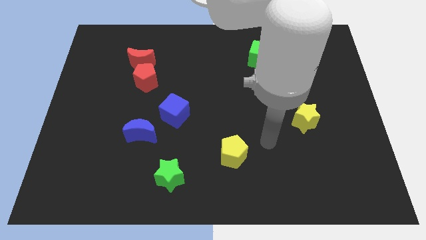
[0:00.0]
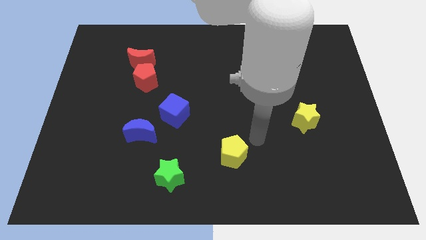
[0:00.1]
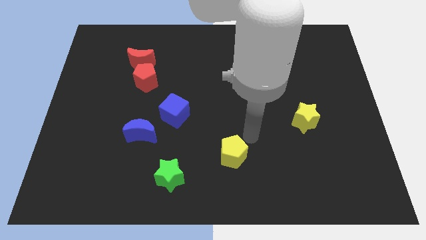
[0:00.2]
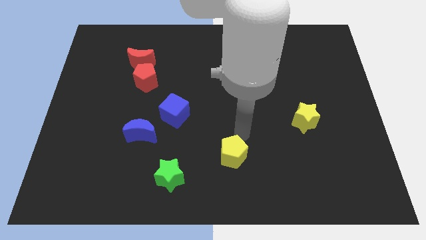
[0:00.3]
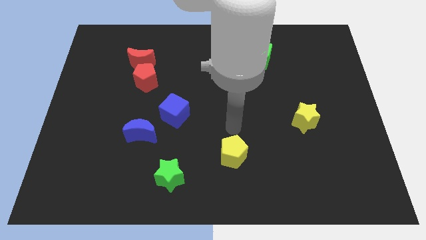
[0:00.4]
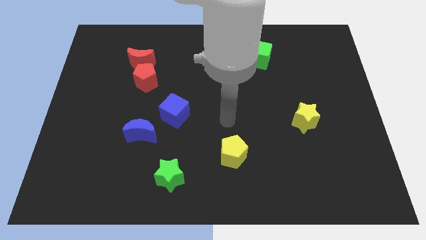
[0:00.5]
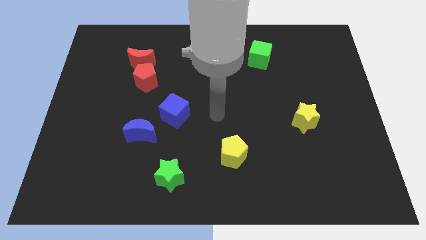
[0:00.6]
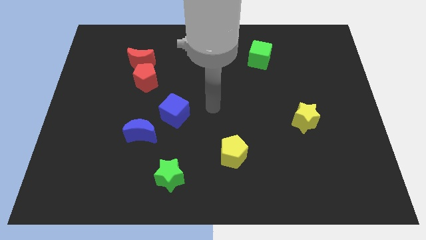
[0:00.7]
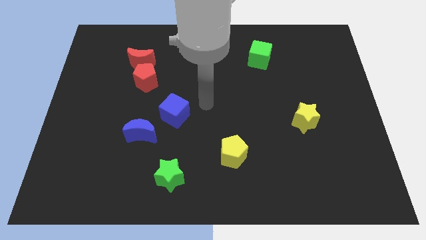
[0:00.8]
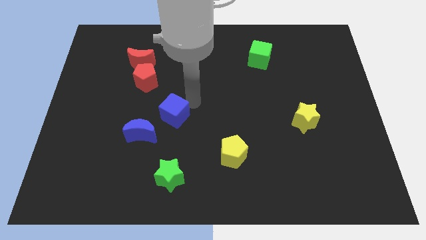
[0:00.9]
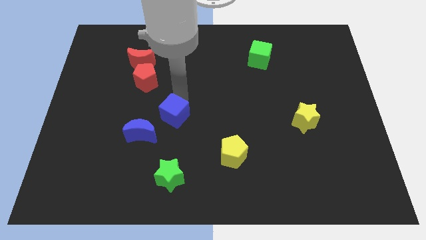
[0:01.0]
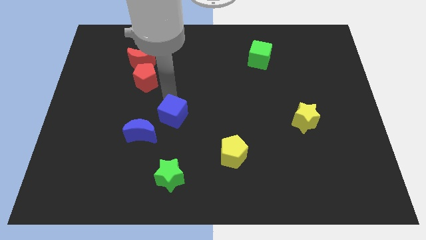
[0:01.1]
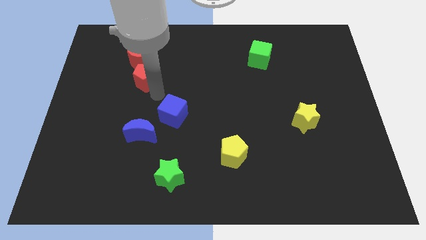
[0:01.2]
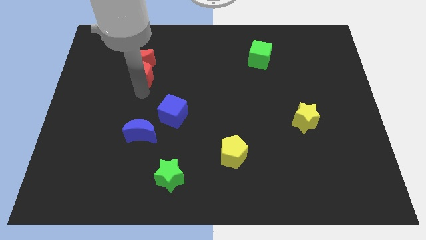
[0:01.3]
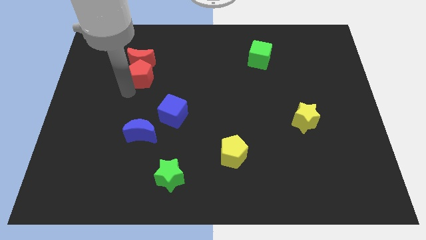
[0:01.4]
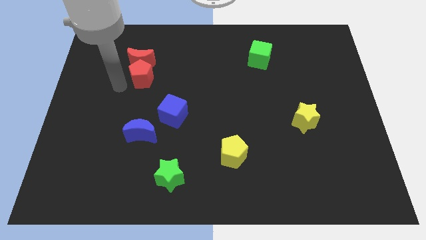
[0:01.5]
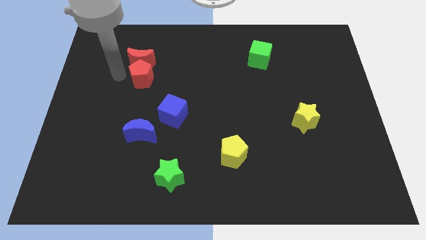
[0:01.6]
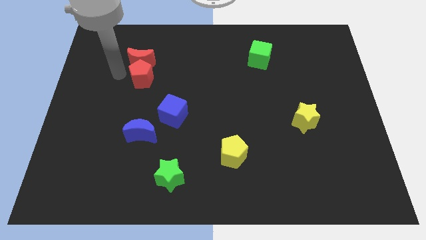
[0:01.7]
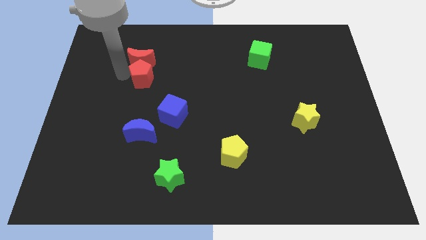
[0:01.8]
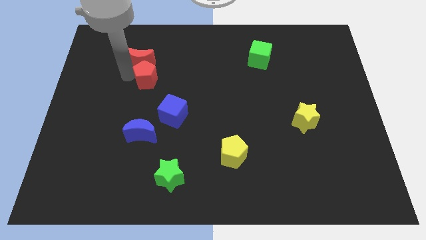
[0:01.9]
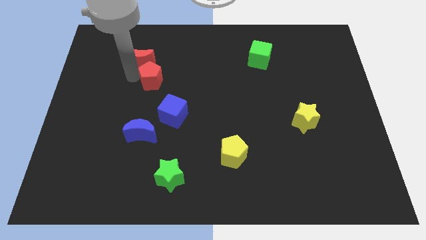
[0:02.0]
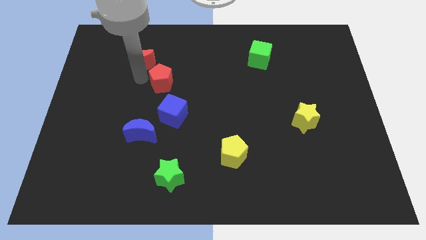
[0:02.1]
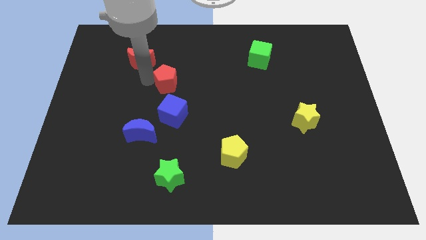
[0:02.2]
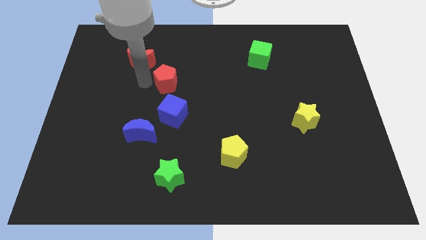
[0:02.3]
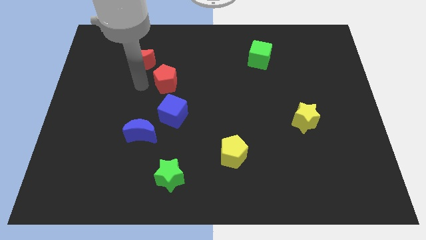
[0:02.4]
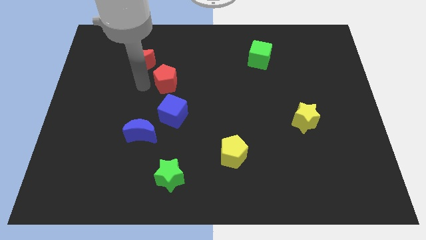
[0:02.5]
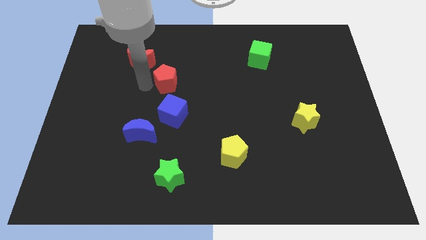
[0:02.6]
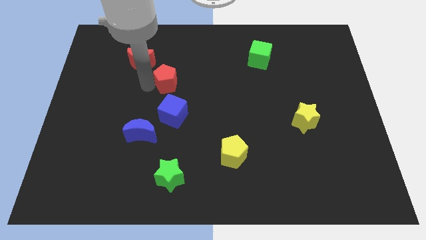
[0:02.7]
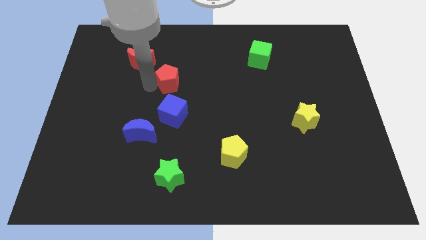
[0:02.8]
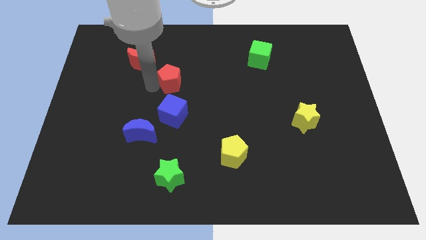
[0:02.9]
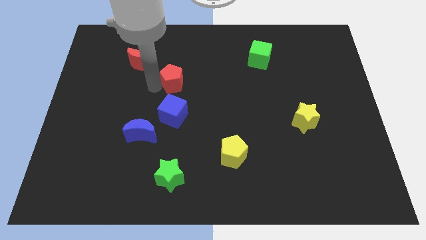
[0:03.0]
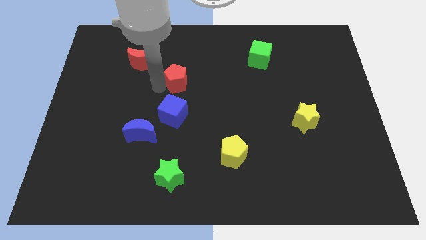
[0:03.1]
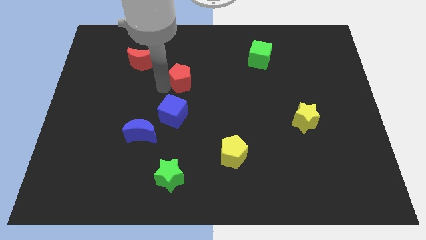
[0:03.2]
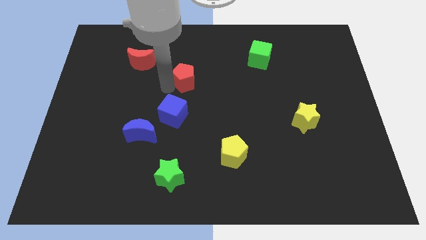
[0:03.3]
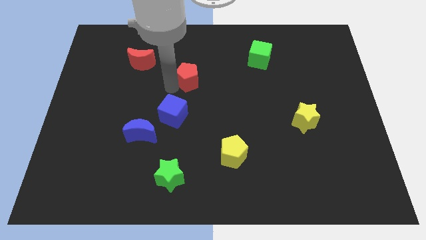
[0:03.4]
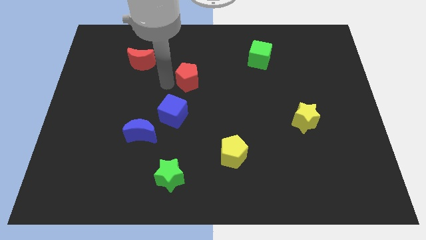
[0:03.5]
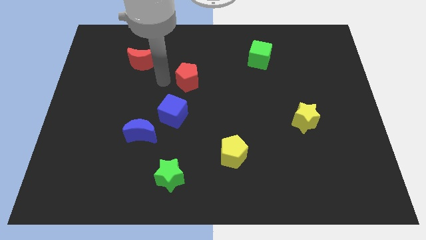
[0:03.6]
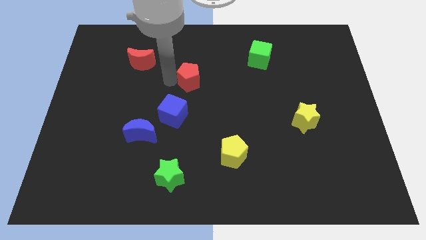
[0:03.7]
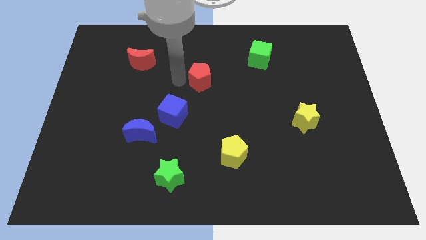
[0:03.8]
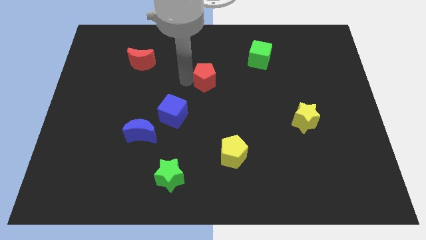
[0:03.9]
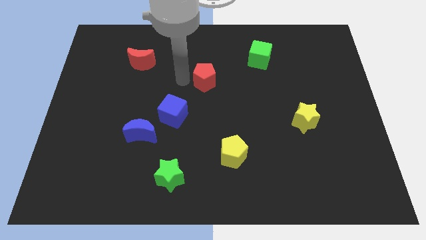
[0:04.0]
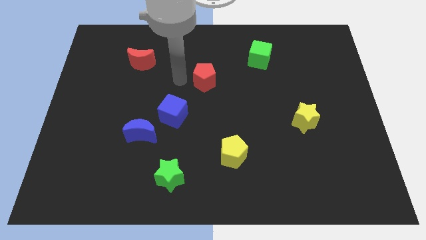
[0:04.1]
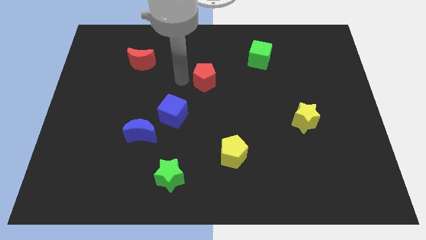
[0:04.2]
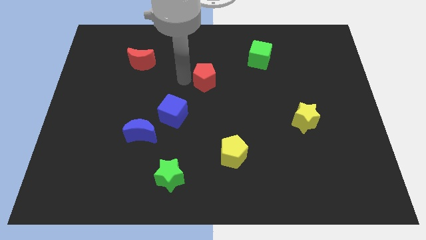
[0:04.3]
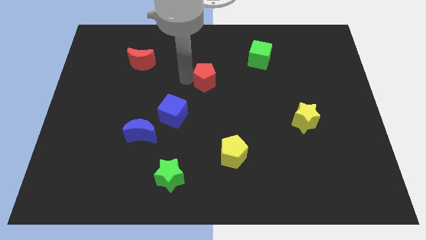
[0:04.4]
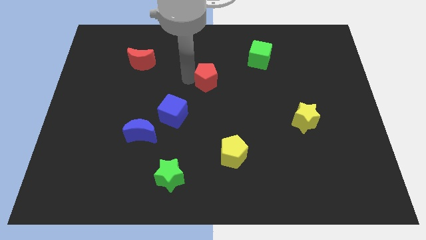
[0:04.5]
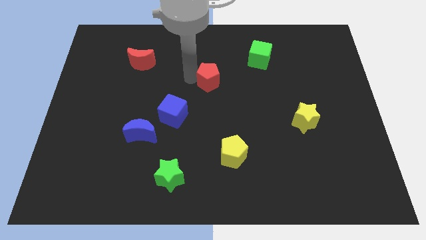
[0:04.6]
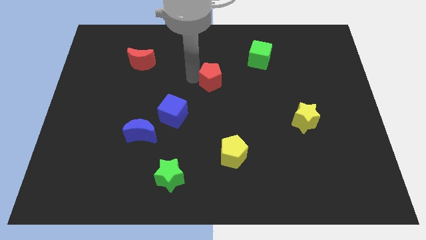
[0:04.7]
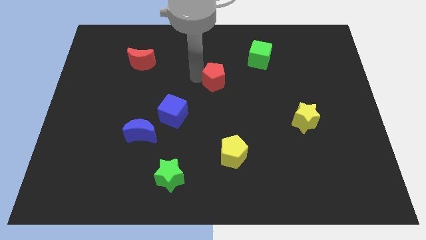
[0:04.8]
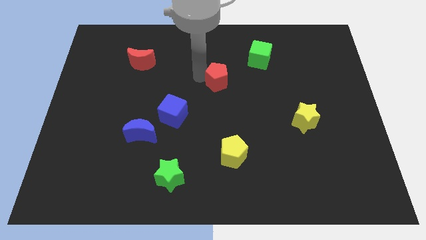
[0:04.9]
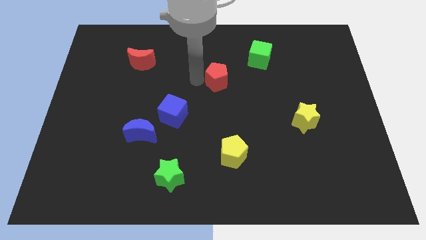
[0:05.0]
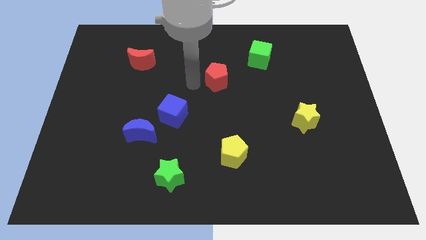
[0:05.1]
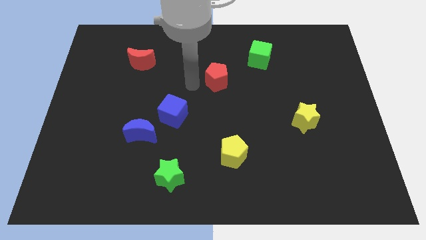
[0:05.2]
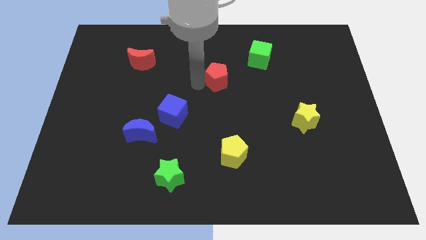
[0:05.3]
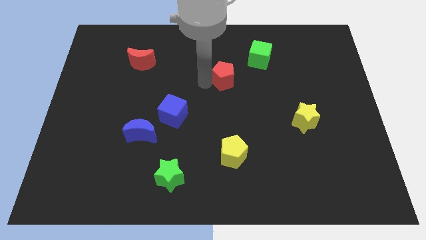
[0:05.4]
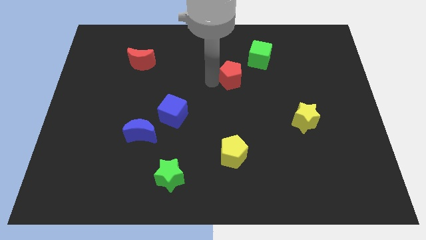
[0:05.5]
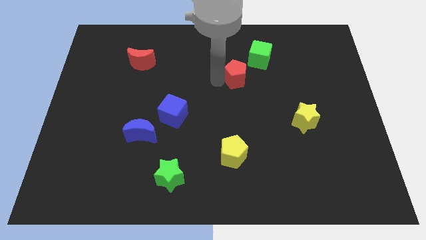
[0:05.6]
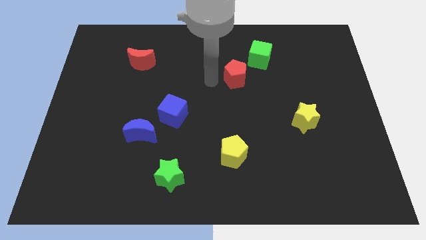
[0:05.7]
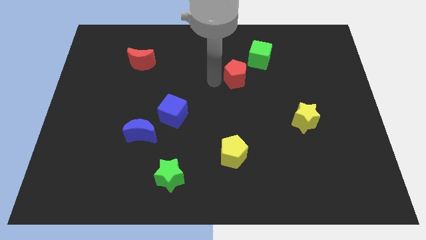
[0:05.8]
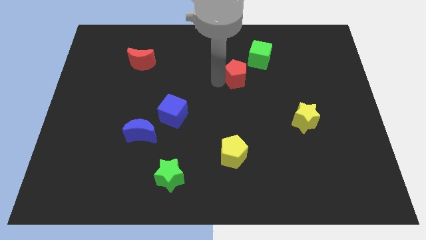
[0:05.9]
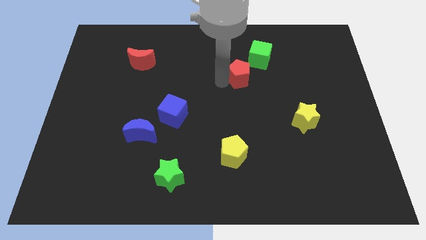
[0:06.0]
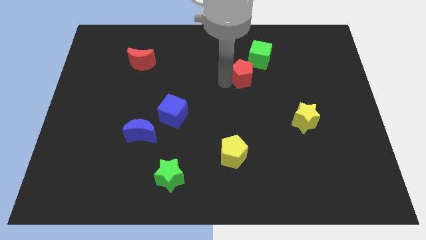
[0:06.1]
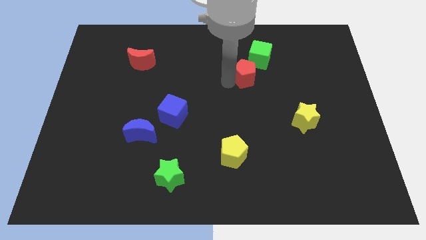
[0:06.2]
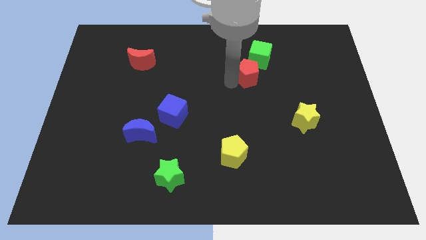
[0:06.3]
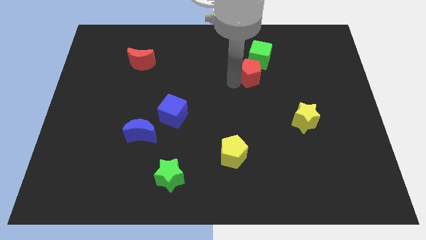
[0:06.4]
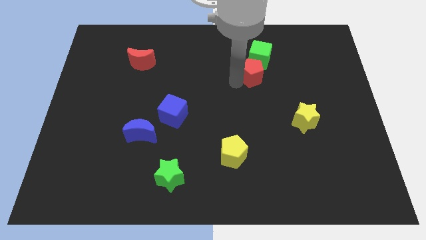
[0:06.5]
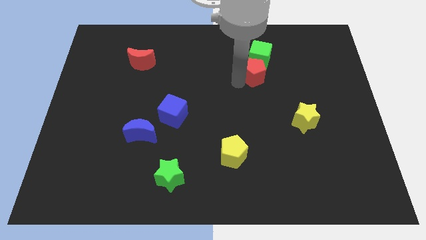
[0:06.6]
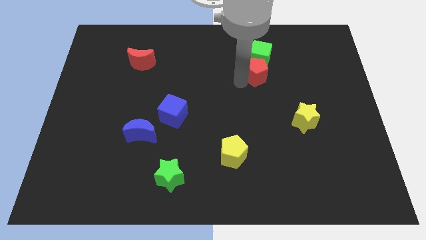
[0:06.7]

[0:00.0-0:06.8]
slide the red pentagon diagonally down and to the right of the green cube

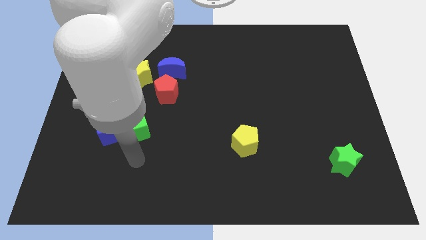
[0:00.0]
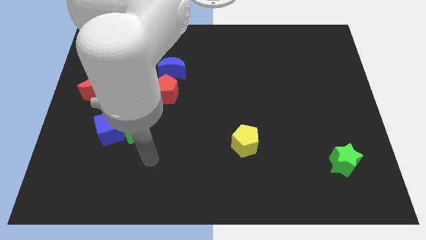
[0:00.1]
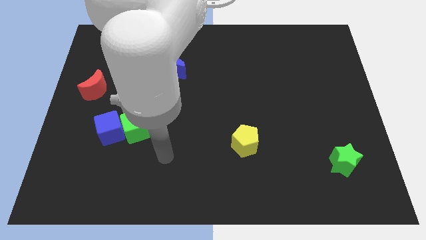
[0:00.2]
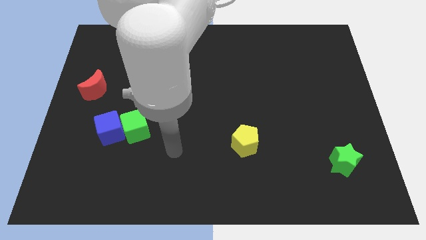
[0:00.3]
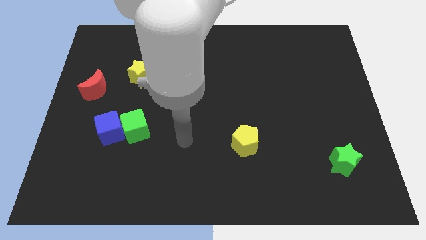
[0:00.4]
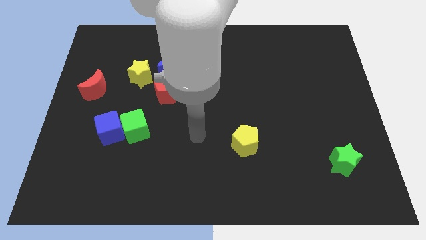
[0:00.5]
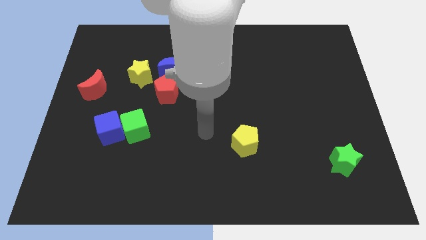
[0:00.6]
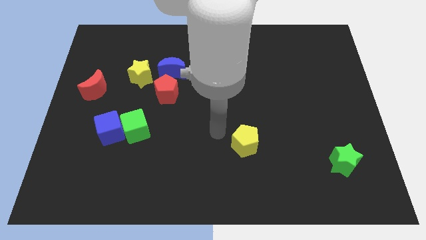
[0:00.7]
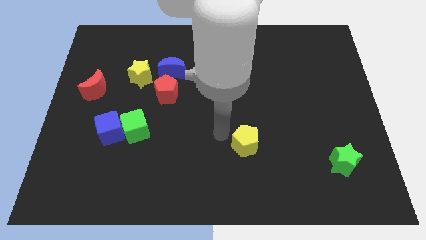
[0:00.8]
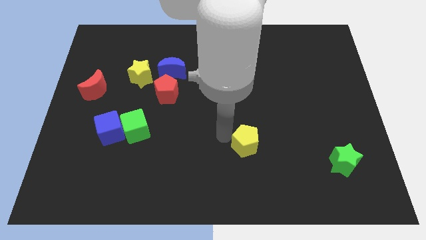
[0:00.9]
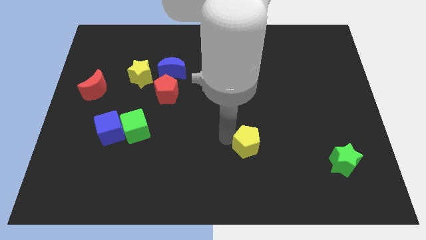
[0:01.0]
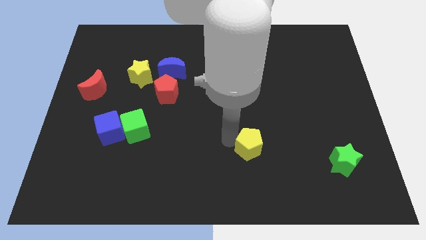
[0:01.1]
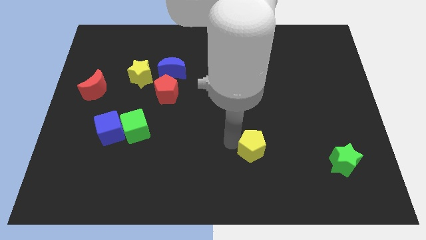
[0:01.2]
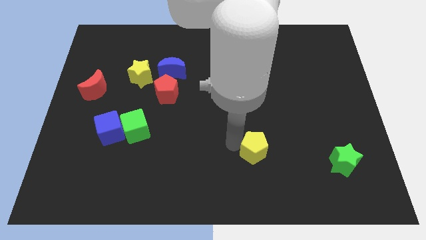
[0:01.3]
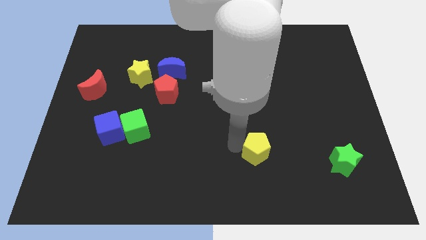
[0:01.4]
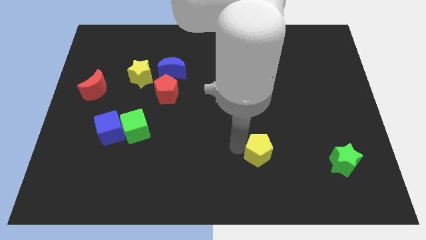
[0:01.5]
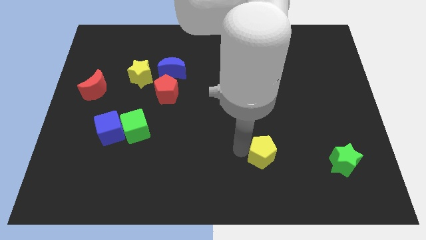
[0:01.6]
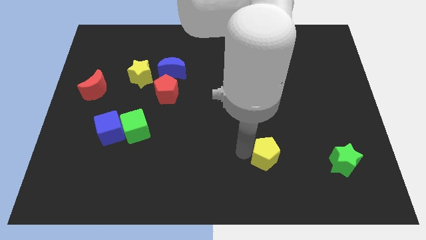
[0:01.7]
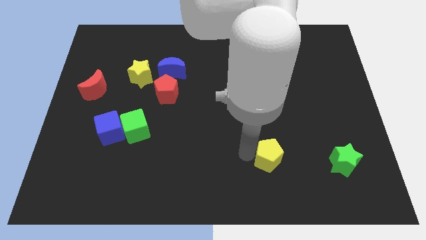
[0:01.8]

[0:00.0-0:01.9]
put the yellow pentagon to the left of the green star
